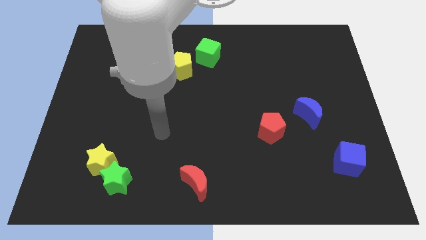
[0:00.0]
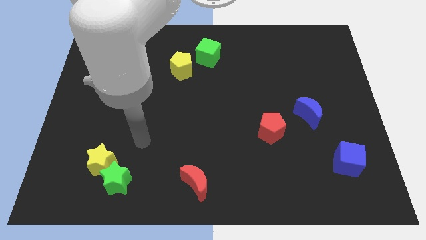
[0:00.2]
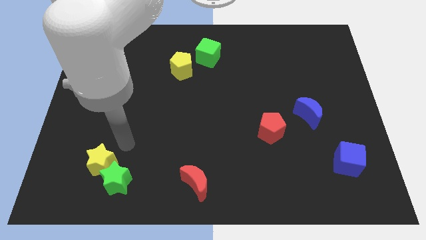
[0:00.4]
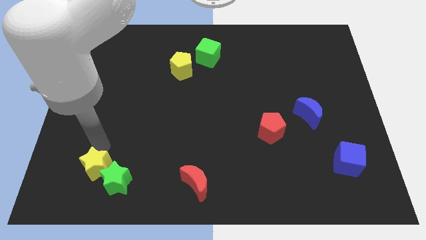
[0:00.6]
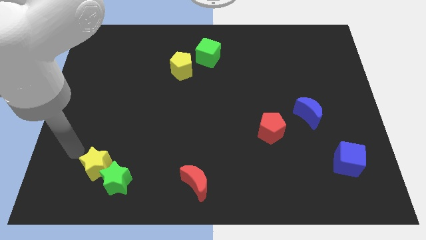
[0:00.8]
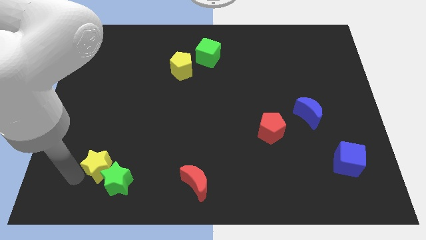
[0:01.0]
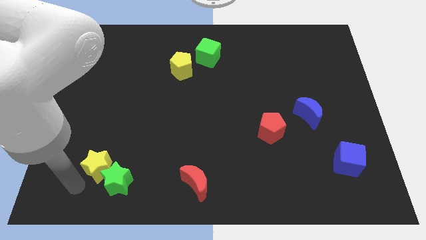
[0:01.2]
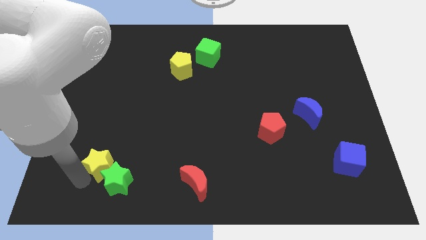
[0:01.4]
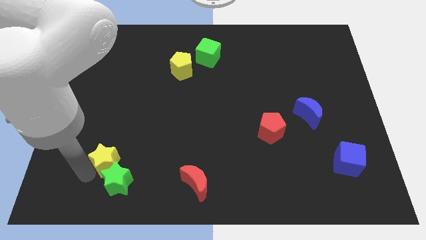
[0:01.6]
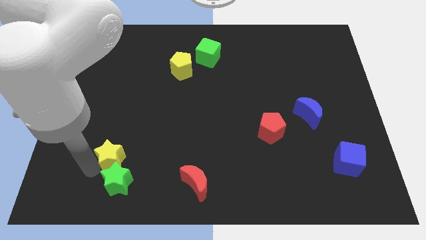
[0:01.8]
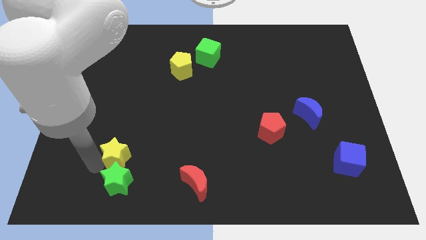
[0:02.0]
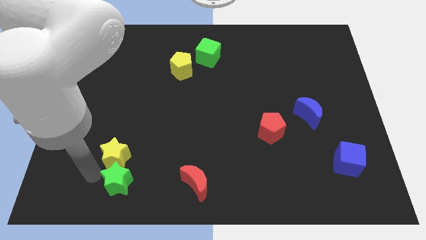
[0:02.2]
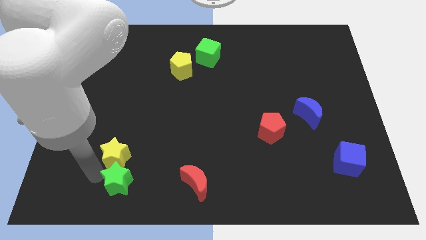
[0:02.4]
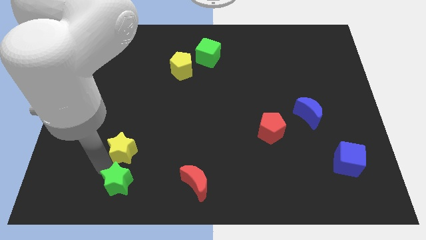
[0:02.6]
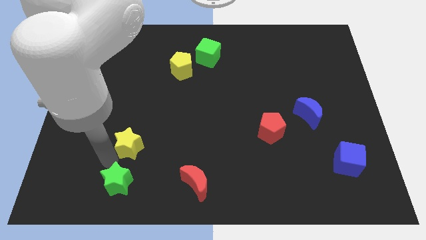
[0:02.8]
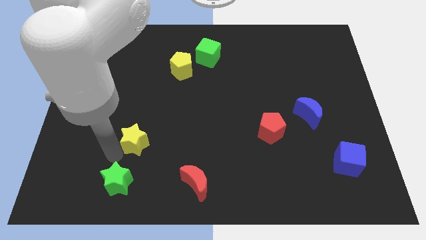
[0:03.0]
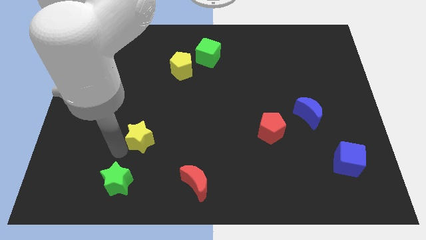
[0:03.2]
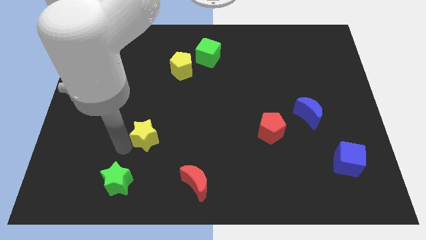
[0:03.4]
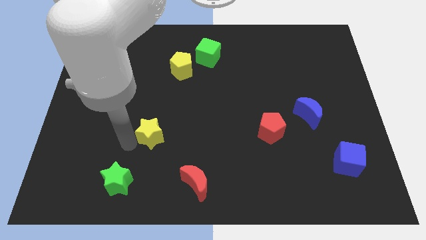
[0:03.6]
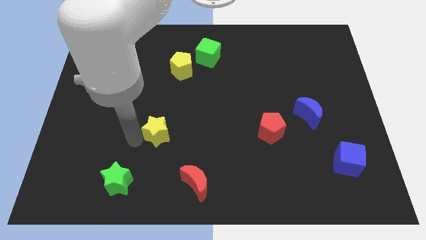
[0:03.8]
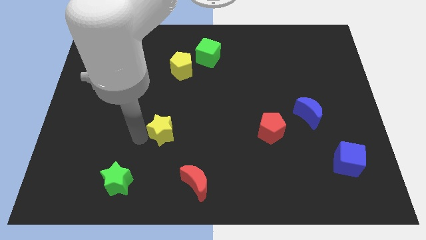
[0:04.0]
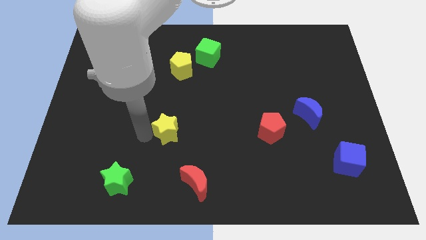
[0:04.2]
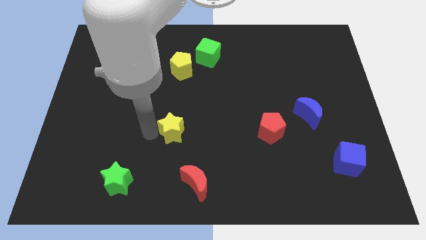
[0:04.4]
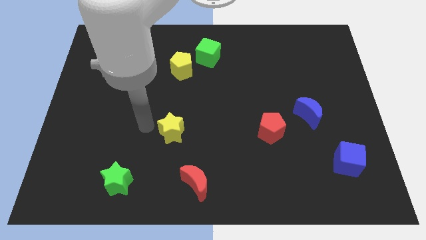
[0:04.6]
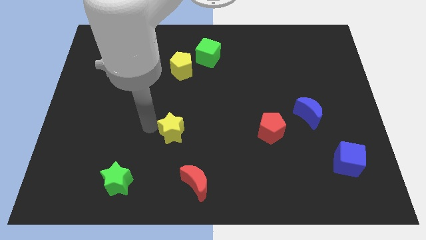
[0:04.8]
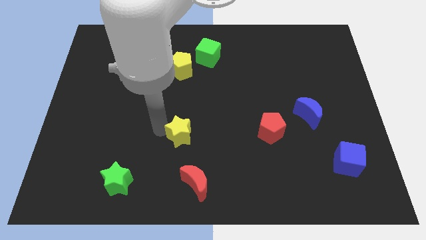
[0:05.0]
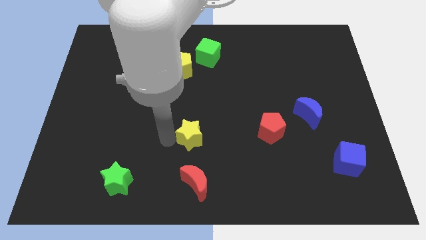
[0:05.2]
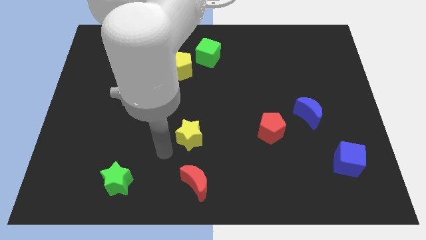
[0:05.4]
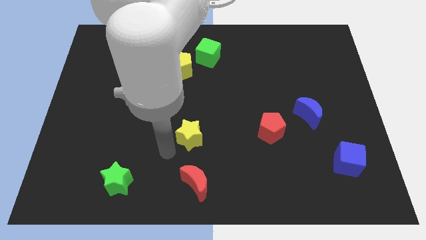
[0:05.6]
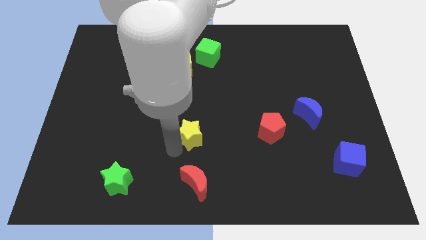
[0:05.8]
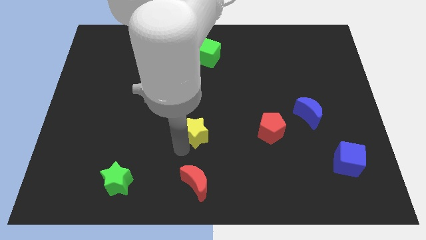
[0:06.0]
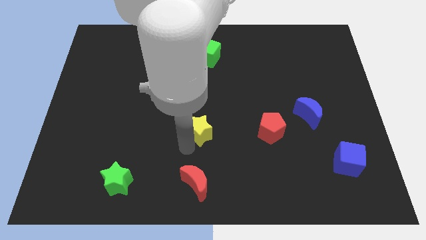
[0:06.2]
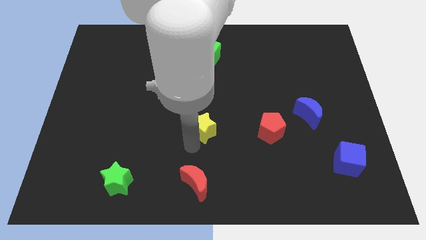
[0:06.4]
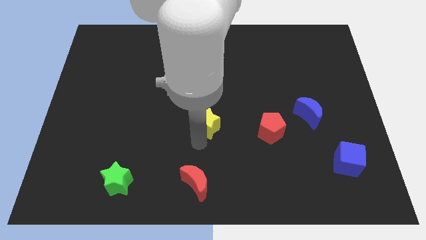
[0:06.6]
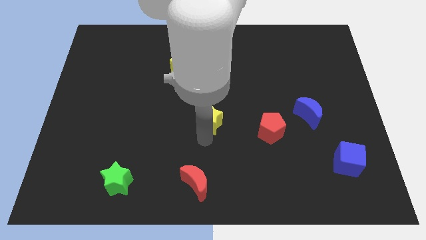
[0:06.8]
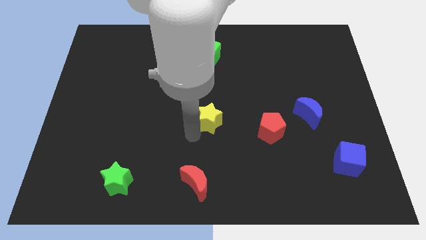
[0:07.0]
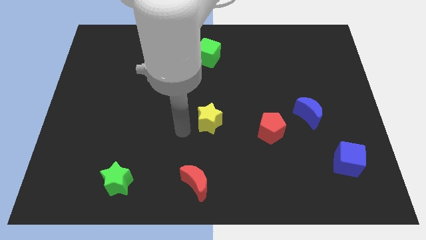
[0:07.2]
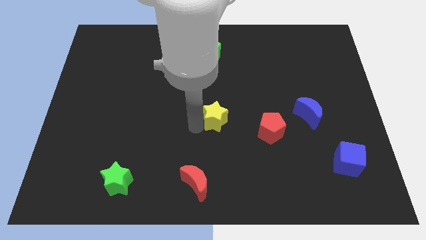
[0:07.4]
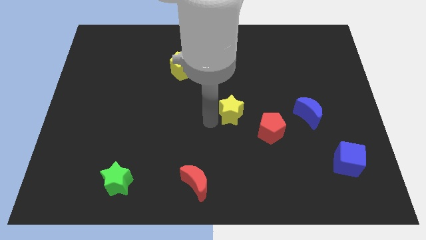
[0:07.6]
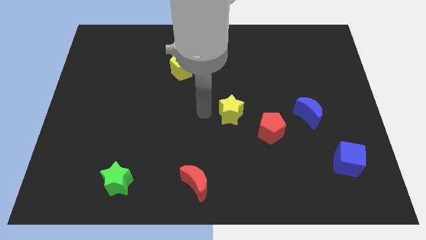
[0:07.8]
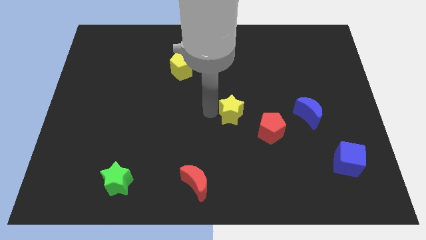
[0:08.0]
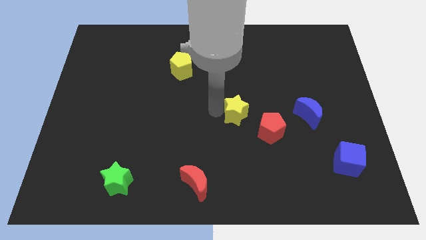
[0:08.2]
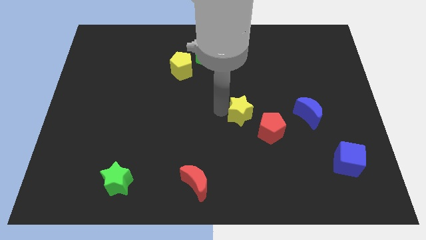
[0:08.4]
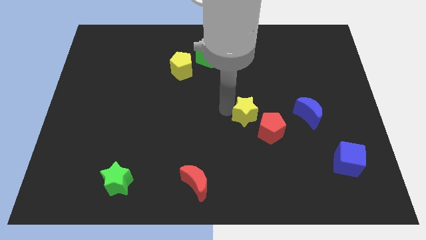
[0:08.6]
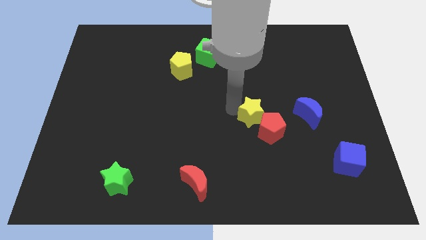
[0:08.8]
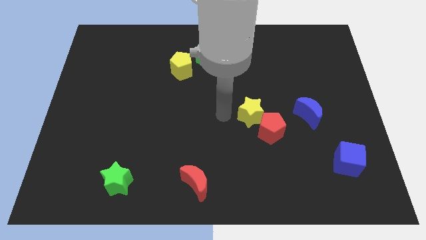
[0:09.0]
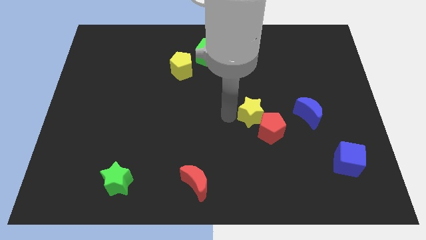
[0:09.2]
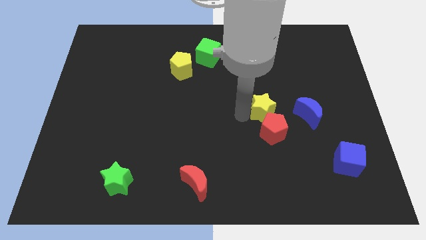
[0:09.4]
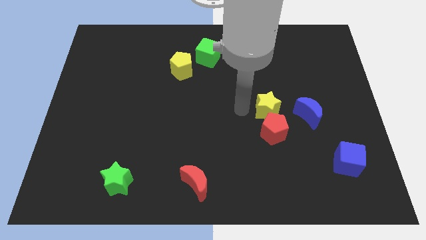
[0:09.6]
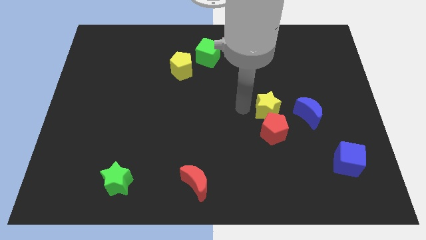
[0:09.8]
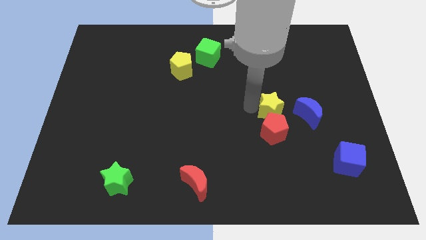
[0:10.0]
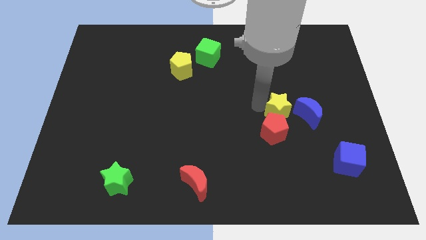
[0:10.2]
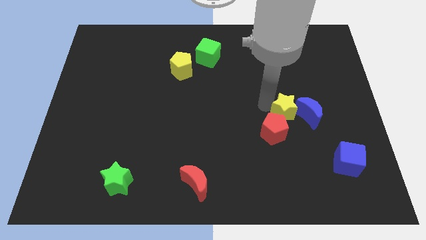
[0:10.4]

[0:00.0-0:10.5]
put the yellow star close to the blue moon

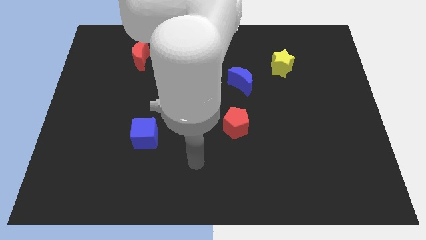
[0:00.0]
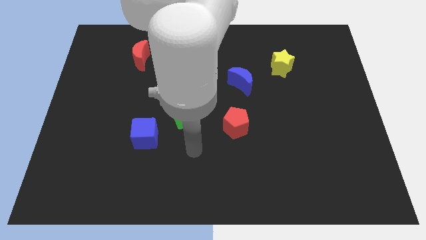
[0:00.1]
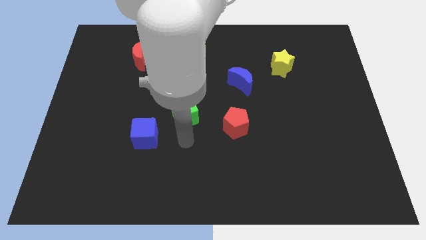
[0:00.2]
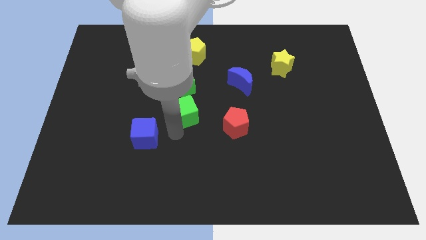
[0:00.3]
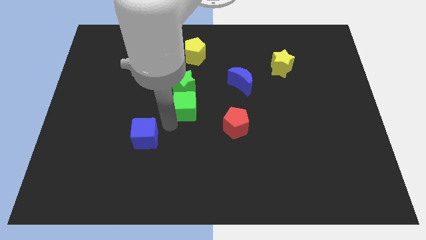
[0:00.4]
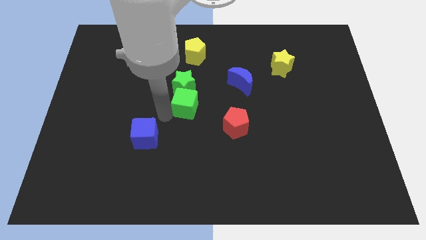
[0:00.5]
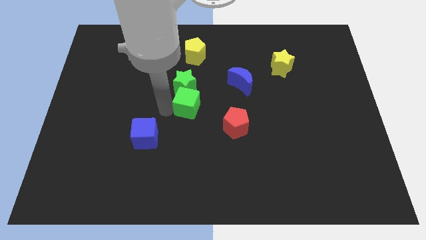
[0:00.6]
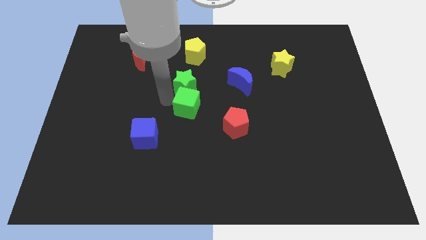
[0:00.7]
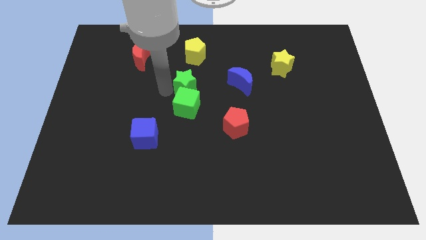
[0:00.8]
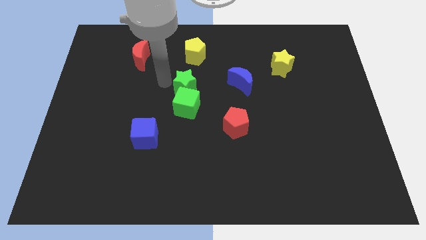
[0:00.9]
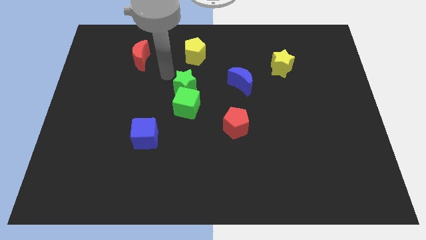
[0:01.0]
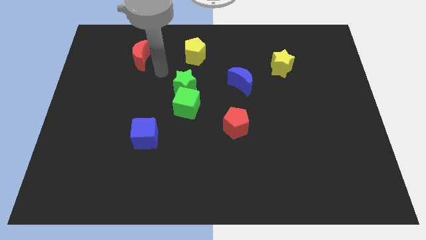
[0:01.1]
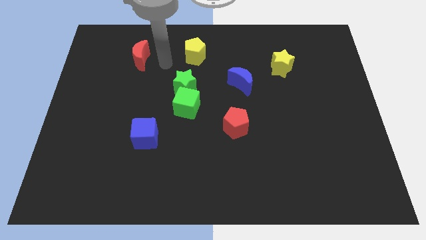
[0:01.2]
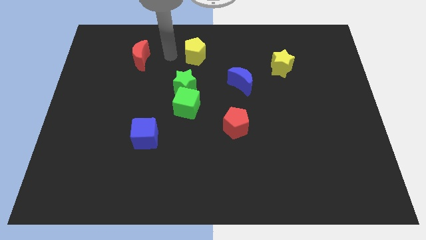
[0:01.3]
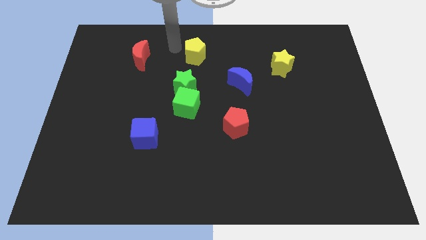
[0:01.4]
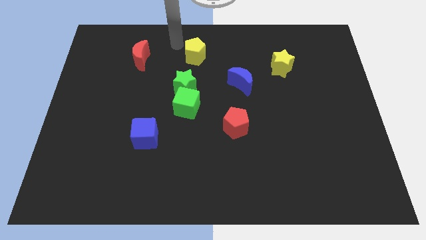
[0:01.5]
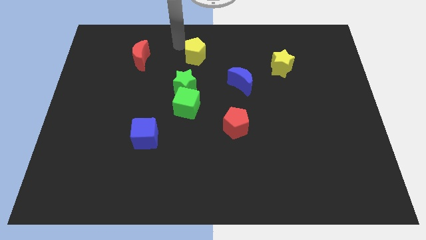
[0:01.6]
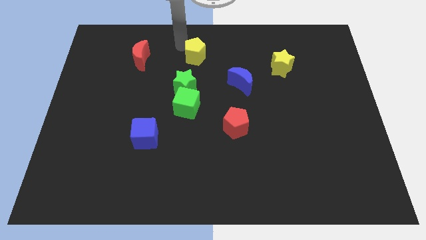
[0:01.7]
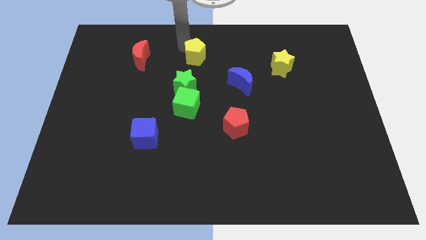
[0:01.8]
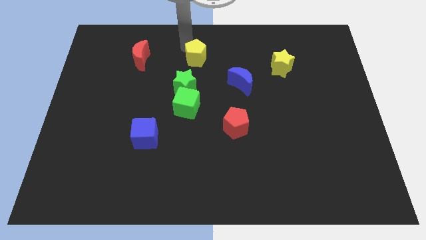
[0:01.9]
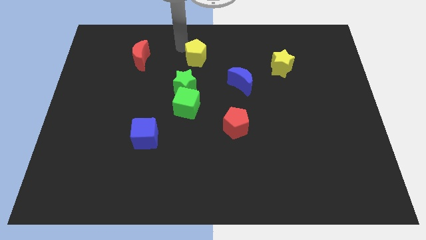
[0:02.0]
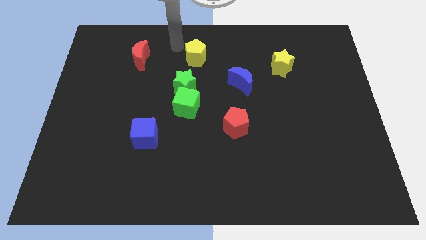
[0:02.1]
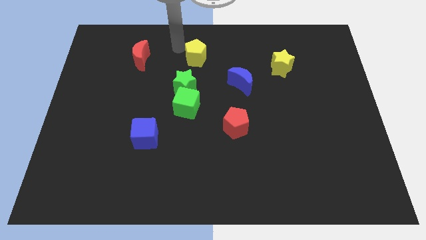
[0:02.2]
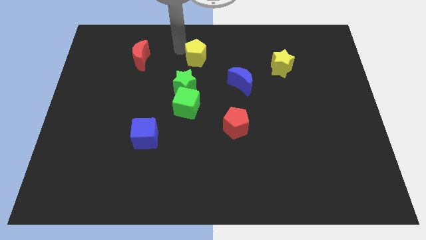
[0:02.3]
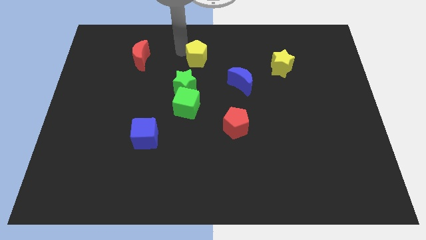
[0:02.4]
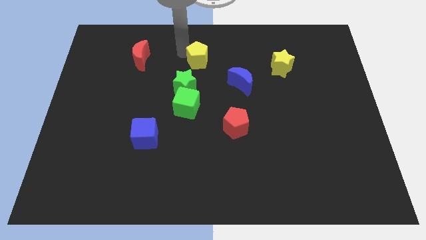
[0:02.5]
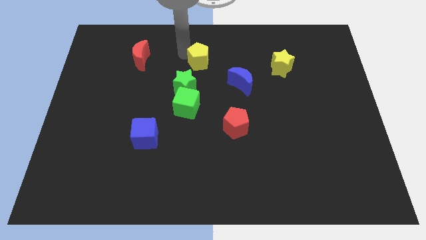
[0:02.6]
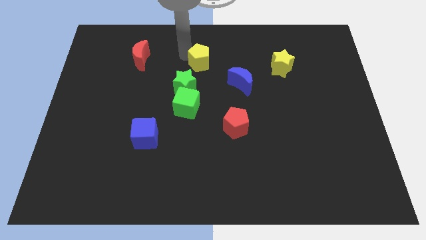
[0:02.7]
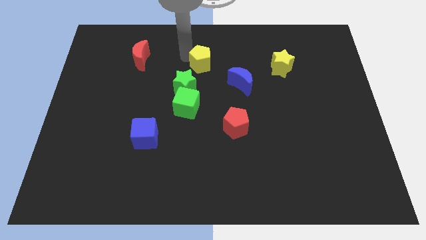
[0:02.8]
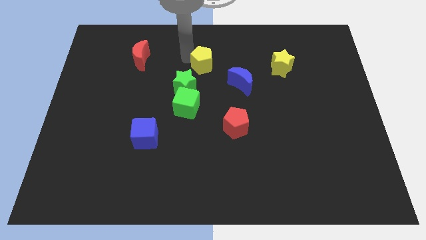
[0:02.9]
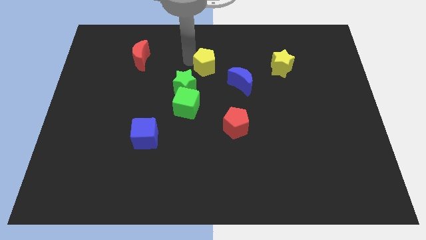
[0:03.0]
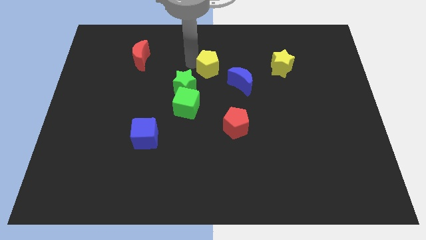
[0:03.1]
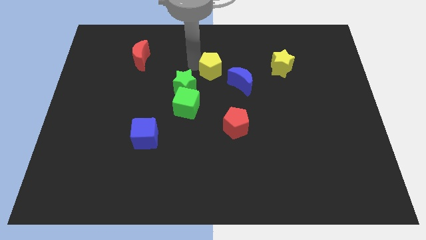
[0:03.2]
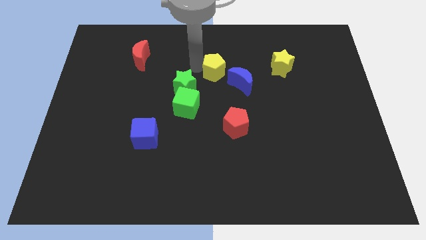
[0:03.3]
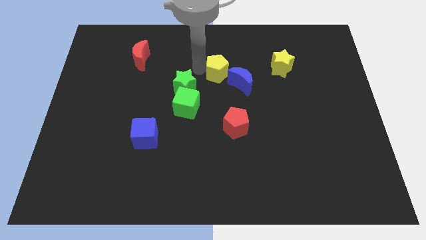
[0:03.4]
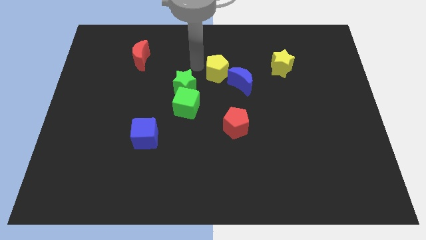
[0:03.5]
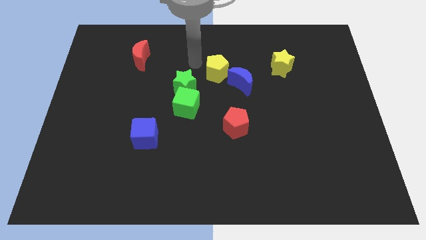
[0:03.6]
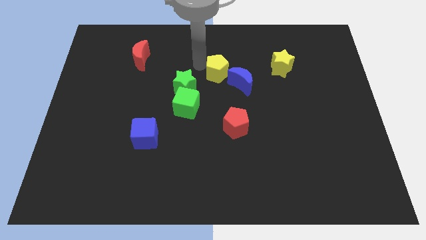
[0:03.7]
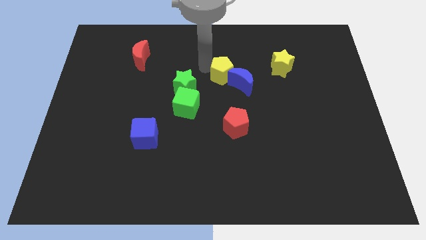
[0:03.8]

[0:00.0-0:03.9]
put the yellow pentagon towards the blue moon
